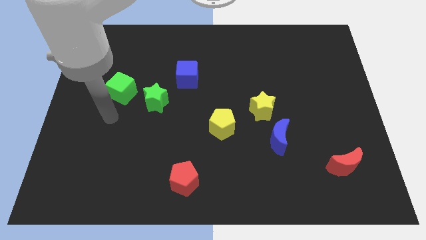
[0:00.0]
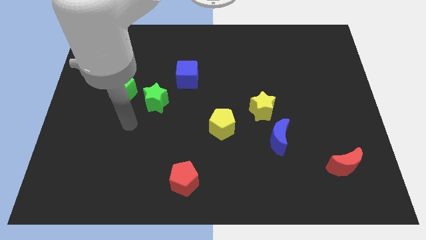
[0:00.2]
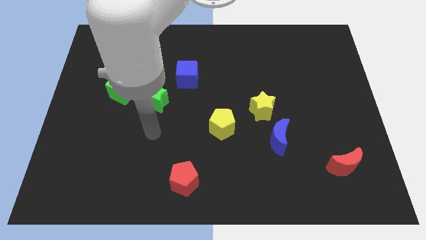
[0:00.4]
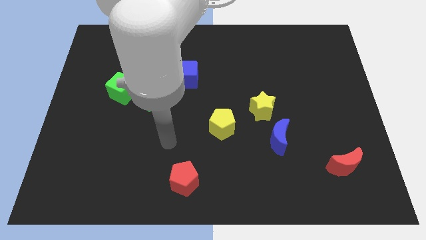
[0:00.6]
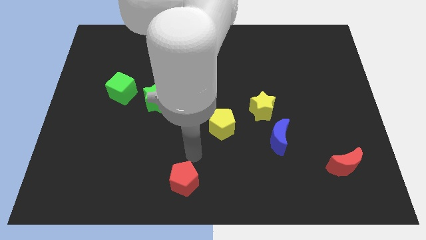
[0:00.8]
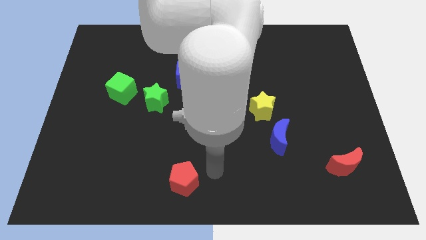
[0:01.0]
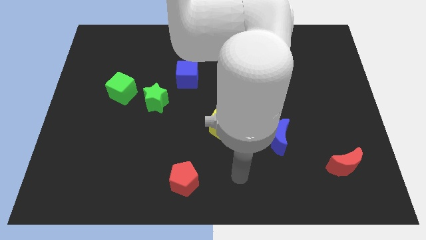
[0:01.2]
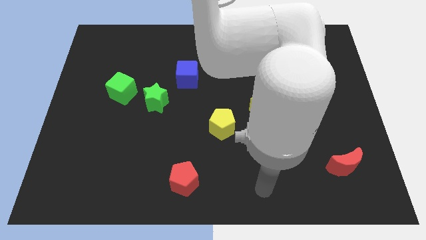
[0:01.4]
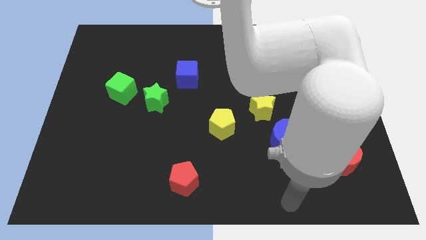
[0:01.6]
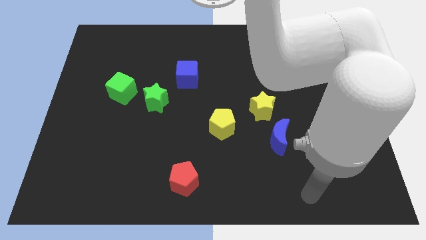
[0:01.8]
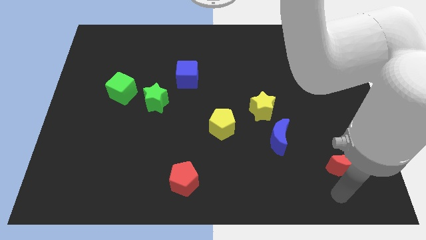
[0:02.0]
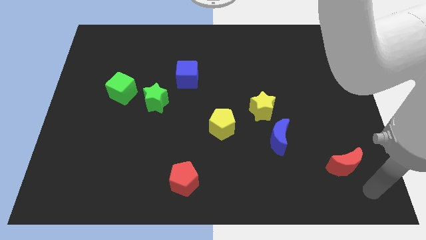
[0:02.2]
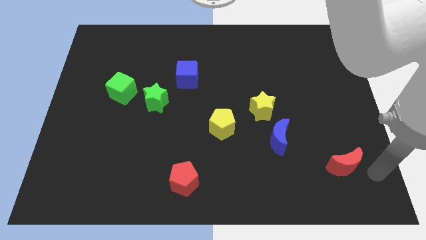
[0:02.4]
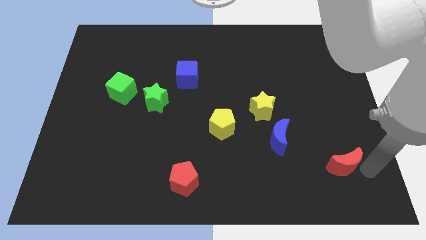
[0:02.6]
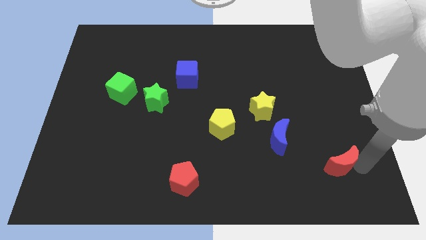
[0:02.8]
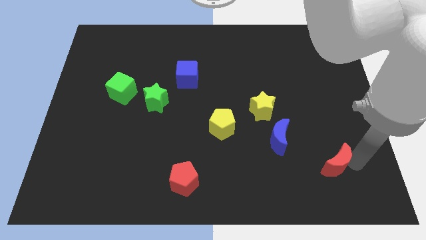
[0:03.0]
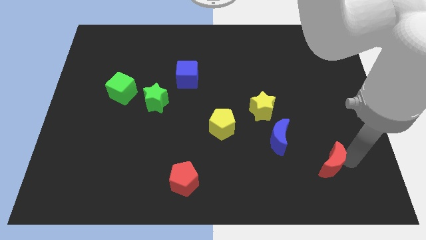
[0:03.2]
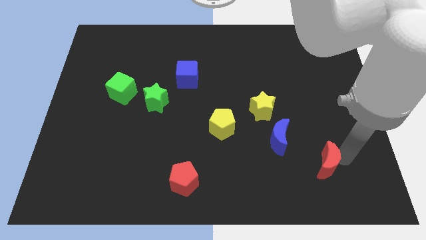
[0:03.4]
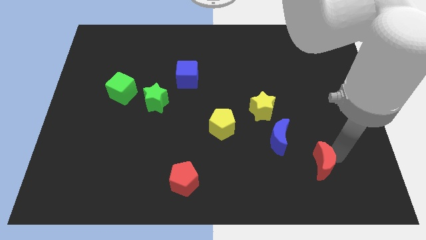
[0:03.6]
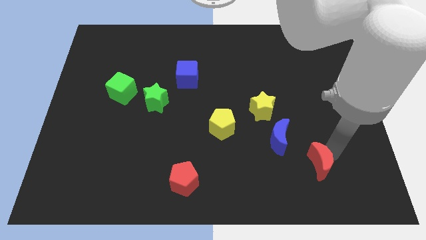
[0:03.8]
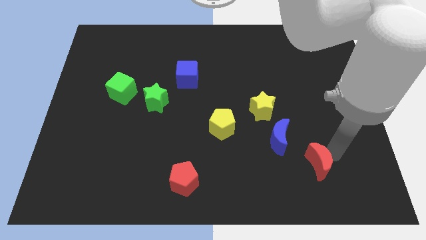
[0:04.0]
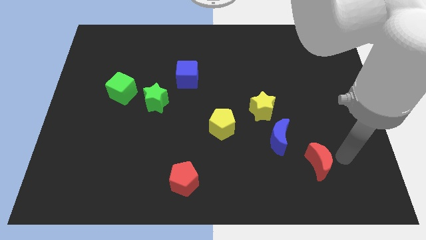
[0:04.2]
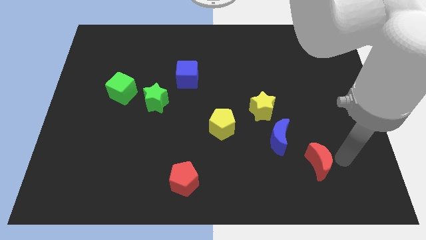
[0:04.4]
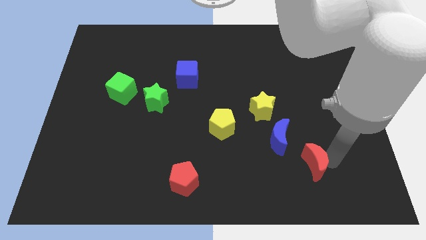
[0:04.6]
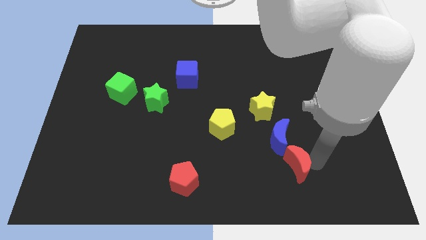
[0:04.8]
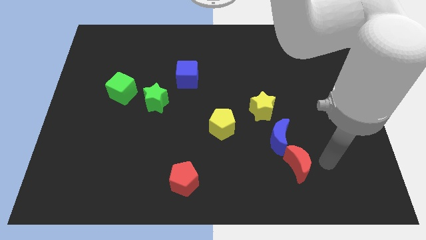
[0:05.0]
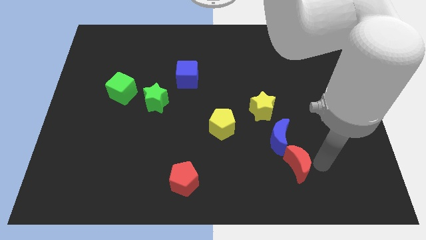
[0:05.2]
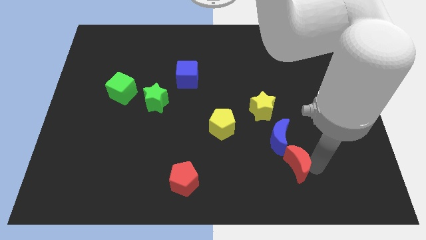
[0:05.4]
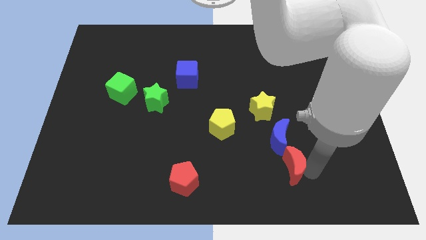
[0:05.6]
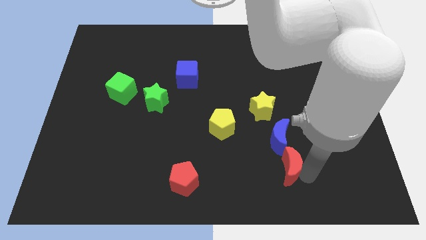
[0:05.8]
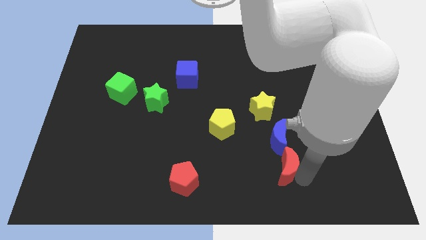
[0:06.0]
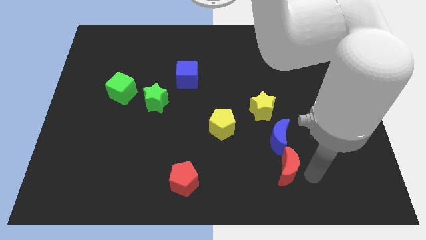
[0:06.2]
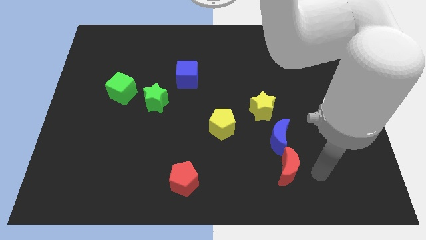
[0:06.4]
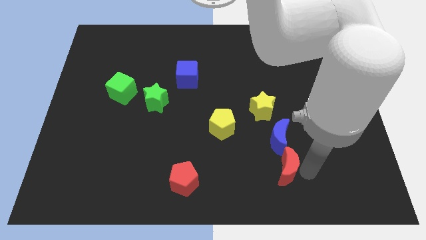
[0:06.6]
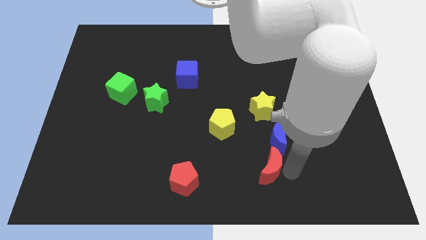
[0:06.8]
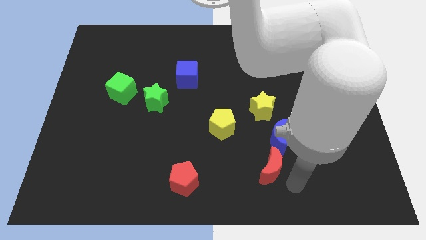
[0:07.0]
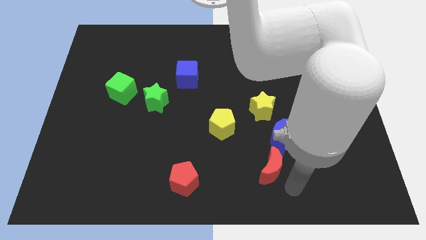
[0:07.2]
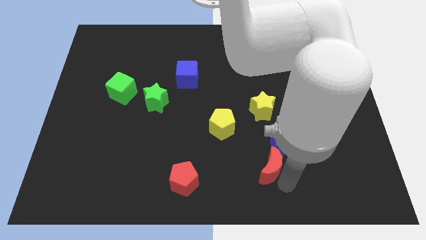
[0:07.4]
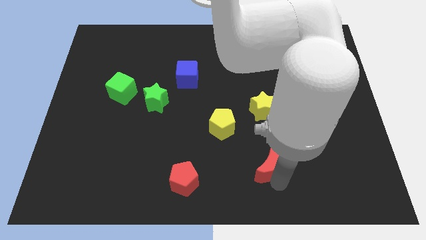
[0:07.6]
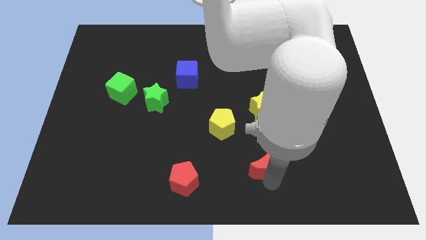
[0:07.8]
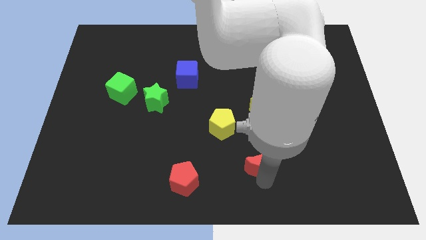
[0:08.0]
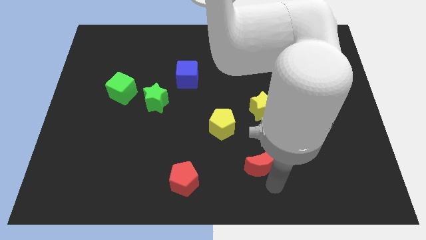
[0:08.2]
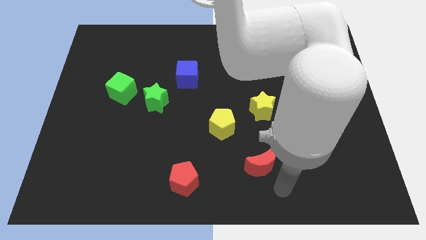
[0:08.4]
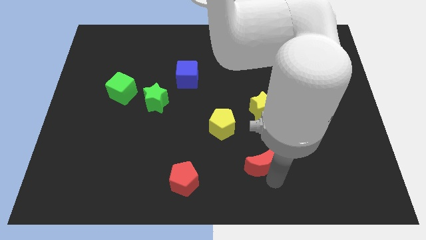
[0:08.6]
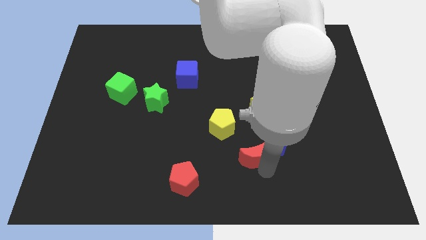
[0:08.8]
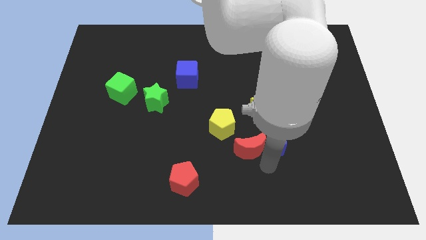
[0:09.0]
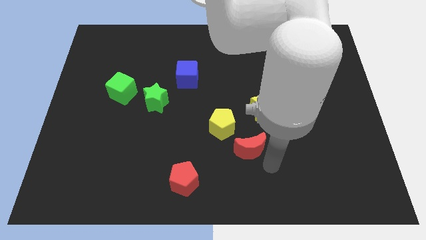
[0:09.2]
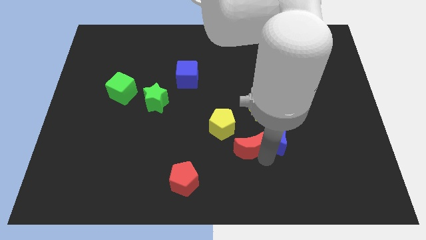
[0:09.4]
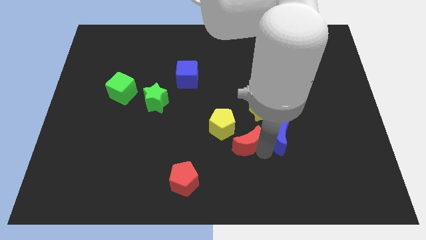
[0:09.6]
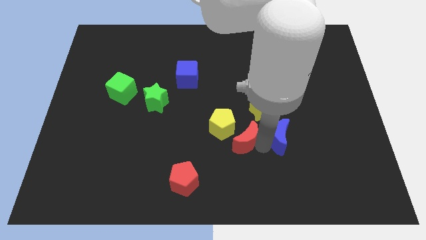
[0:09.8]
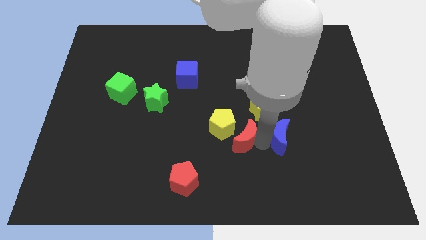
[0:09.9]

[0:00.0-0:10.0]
slide the red moon close to the yellow pentagon
